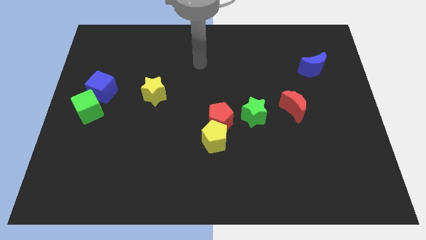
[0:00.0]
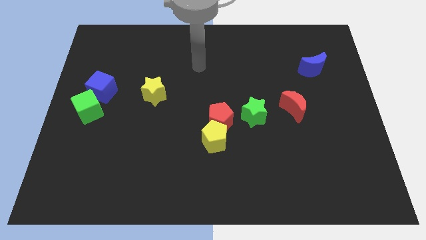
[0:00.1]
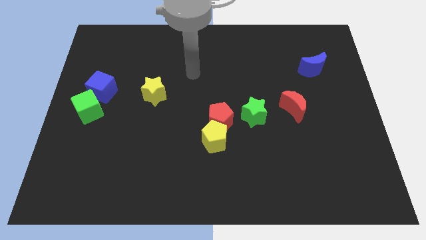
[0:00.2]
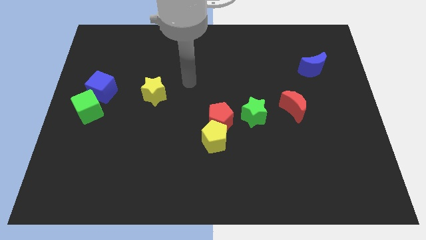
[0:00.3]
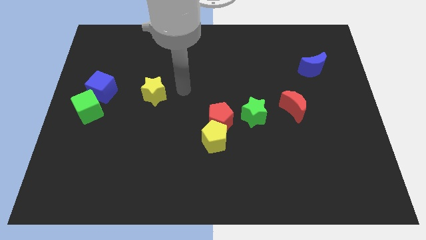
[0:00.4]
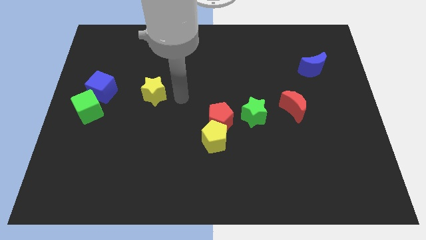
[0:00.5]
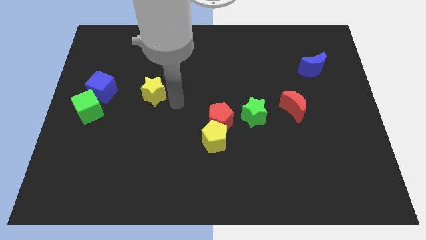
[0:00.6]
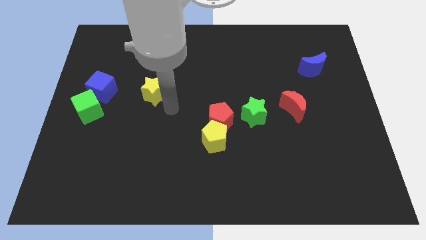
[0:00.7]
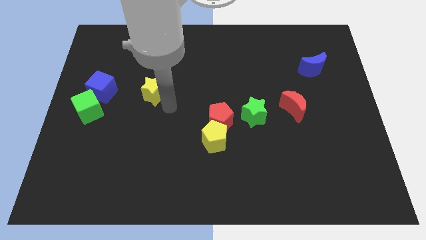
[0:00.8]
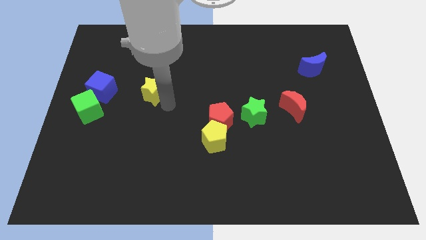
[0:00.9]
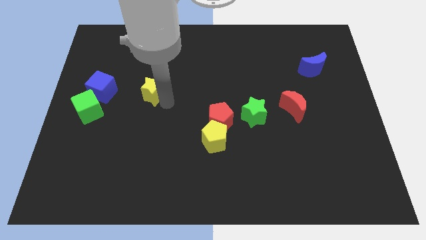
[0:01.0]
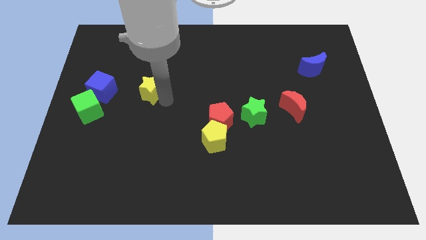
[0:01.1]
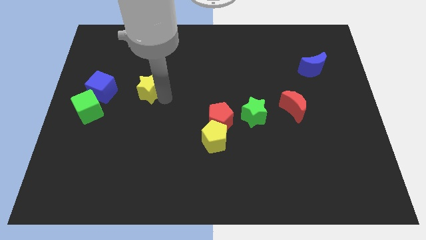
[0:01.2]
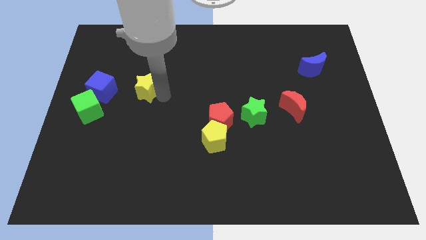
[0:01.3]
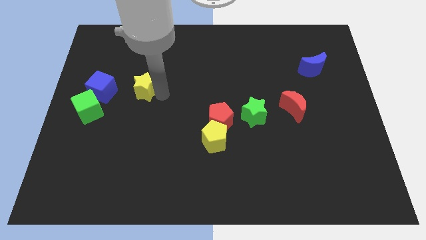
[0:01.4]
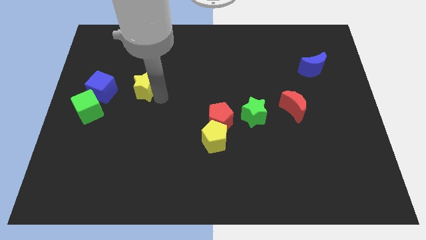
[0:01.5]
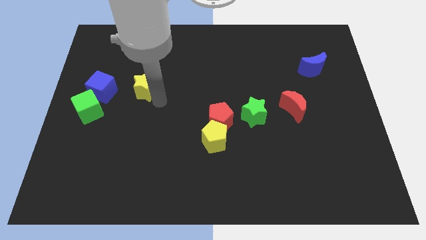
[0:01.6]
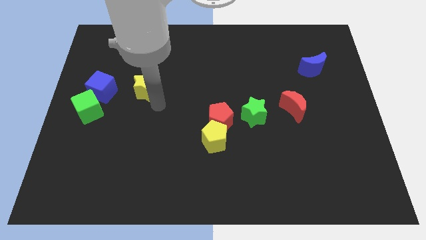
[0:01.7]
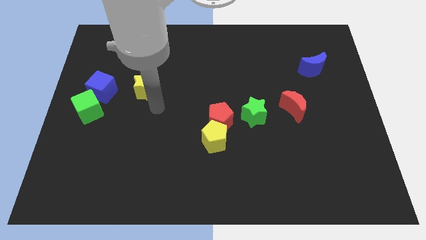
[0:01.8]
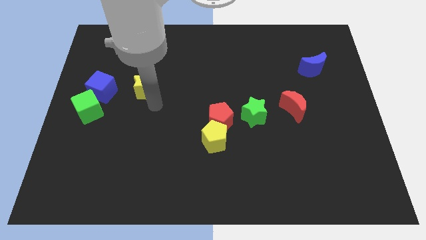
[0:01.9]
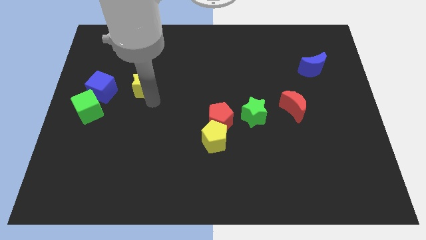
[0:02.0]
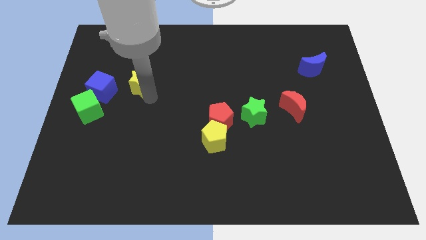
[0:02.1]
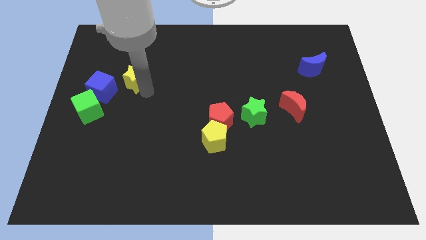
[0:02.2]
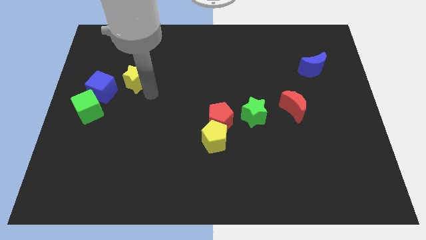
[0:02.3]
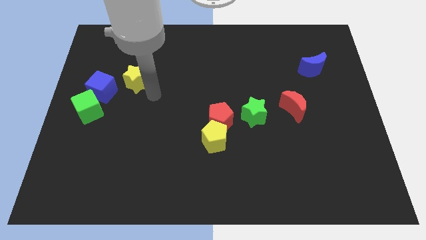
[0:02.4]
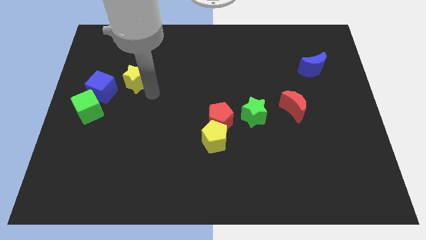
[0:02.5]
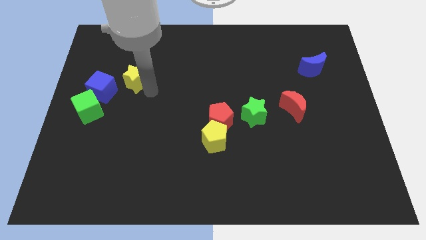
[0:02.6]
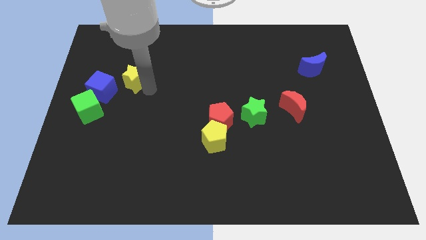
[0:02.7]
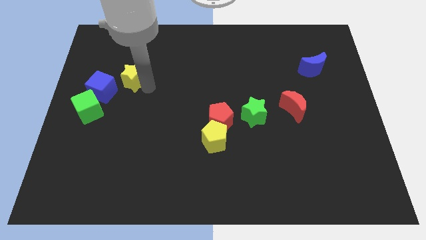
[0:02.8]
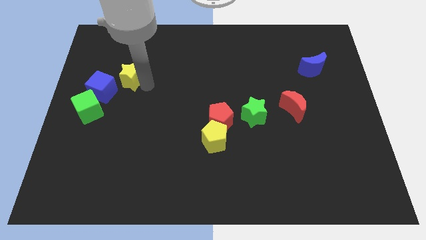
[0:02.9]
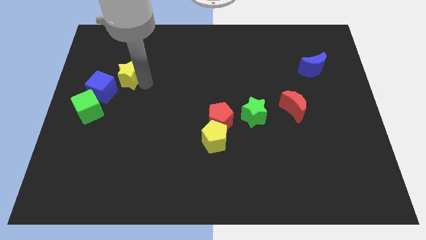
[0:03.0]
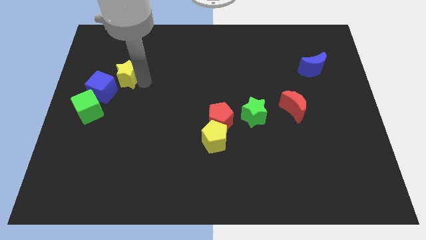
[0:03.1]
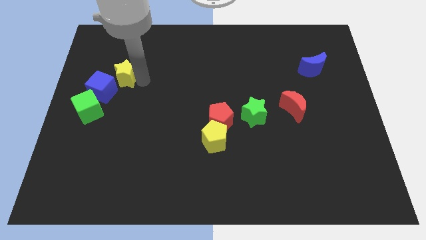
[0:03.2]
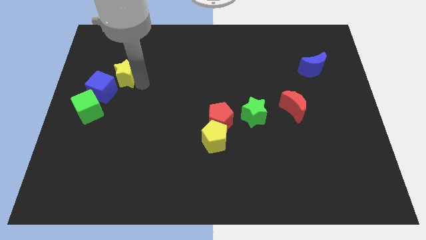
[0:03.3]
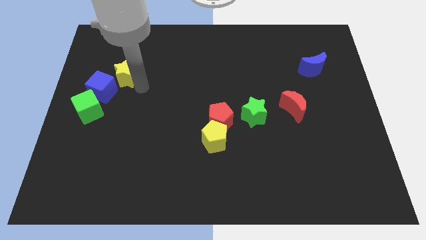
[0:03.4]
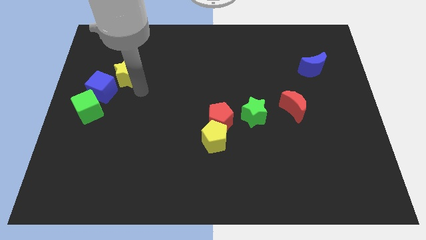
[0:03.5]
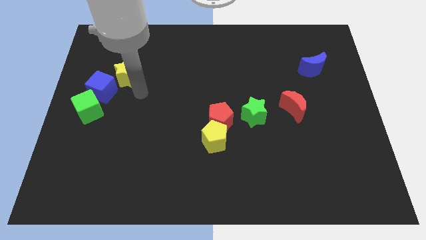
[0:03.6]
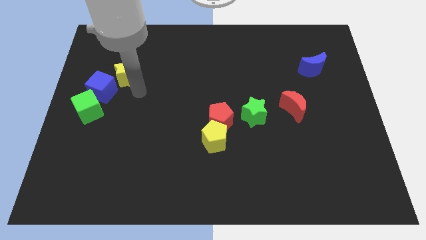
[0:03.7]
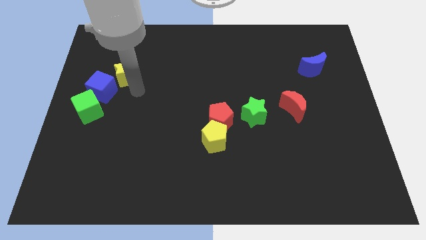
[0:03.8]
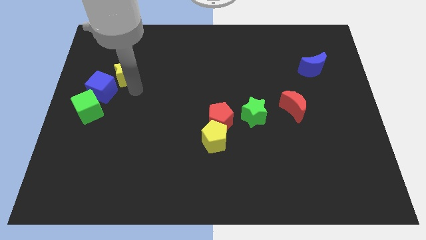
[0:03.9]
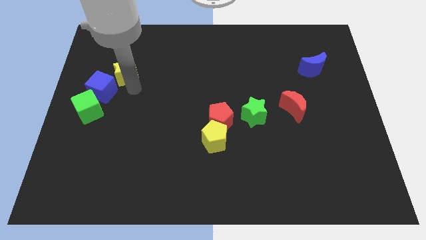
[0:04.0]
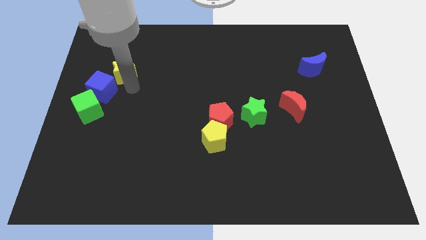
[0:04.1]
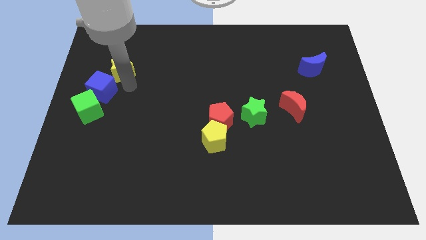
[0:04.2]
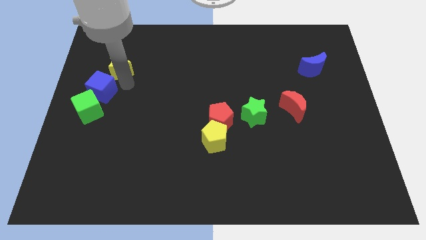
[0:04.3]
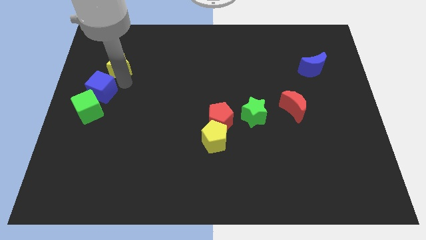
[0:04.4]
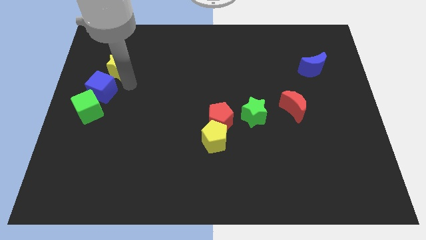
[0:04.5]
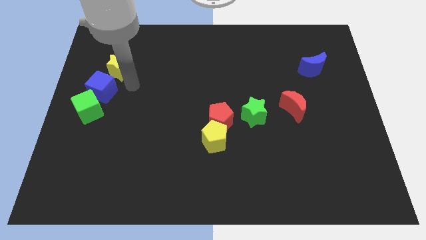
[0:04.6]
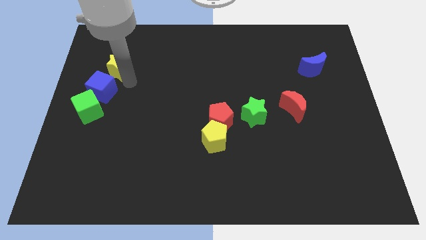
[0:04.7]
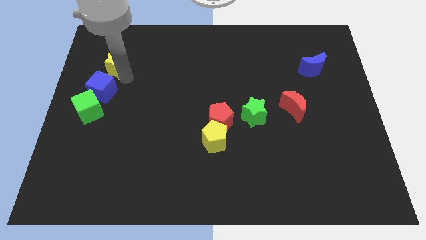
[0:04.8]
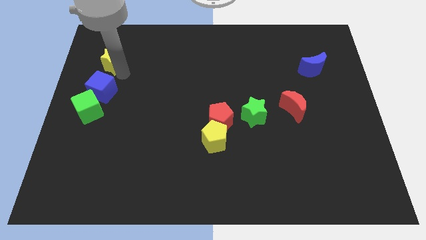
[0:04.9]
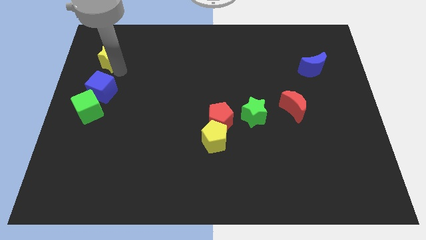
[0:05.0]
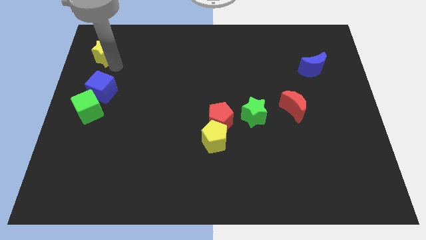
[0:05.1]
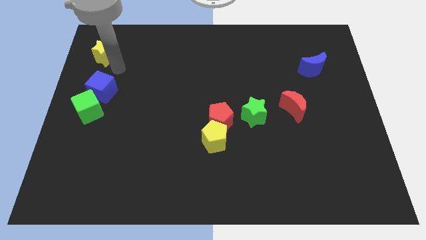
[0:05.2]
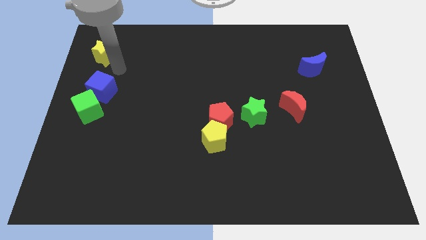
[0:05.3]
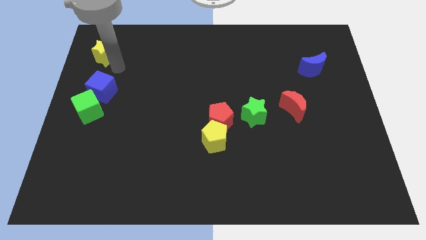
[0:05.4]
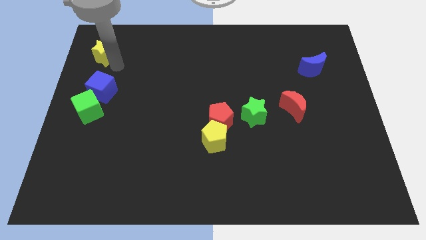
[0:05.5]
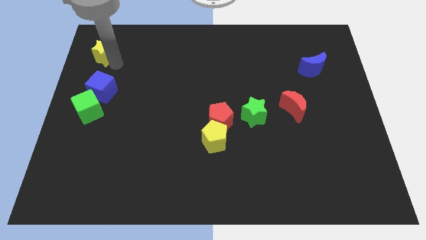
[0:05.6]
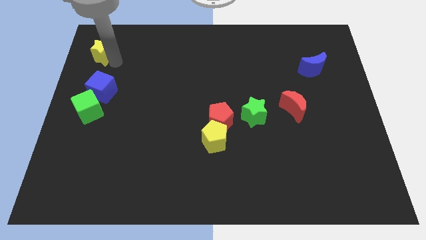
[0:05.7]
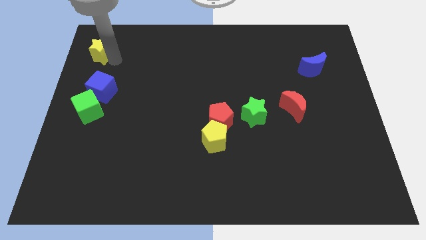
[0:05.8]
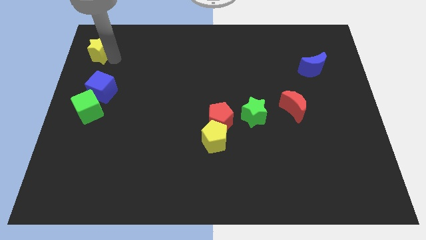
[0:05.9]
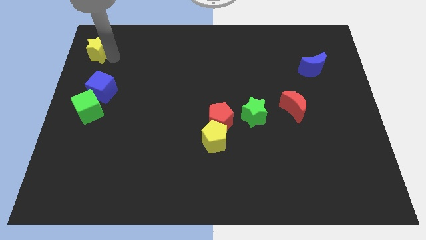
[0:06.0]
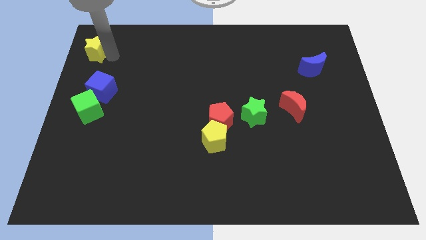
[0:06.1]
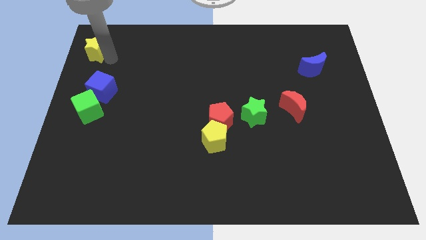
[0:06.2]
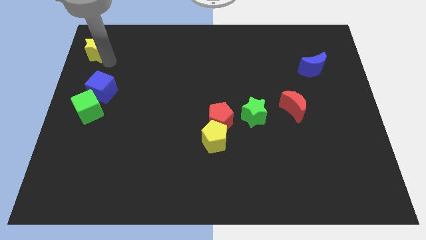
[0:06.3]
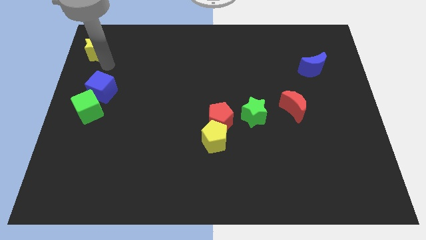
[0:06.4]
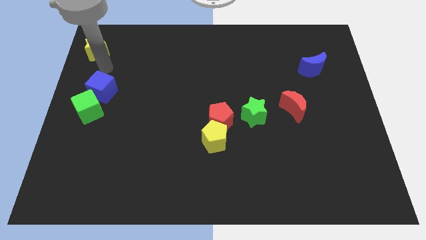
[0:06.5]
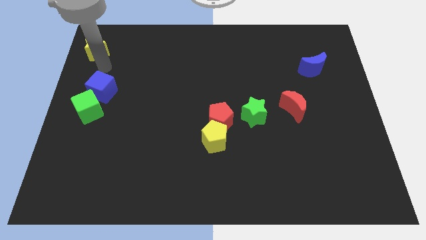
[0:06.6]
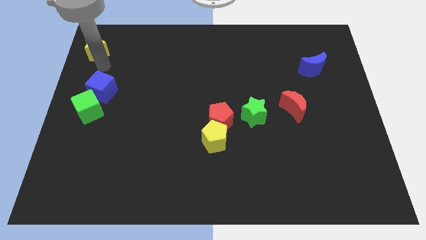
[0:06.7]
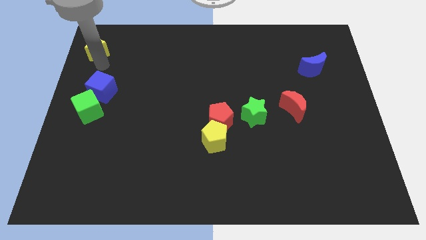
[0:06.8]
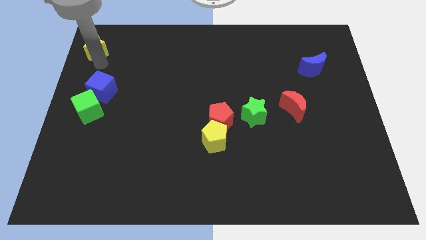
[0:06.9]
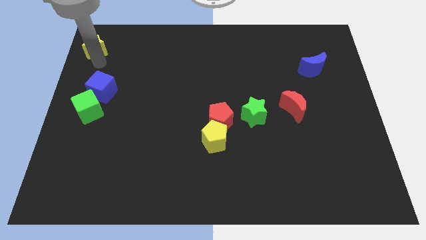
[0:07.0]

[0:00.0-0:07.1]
push the yellow star to the upper left corner

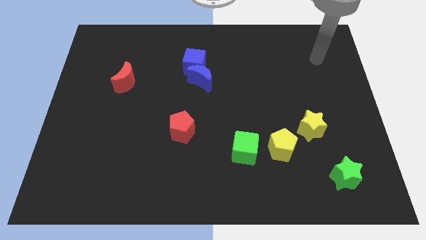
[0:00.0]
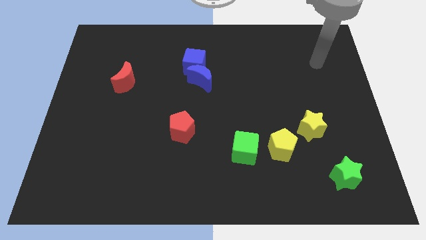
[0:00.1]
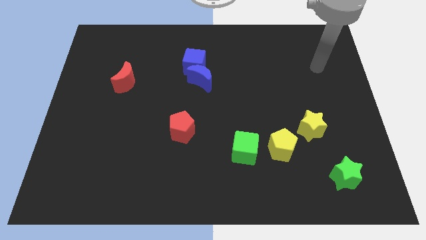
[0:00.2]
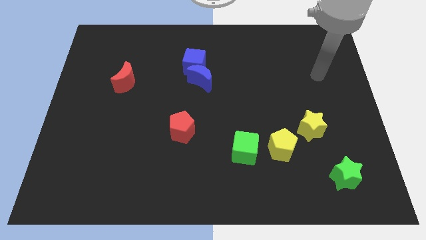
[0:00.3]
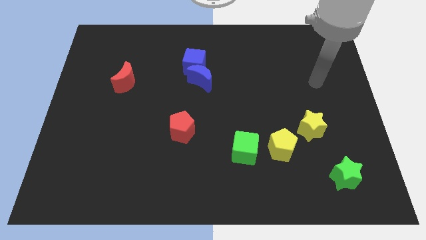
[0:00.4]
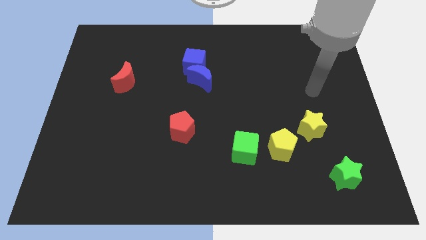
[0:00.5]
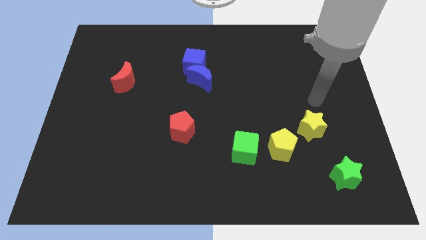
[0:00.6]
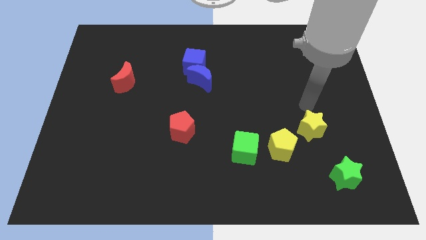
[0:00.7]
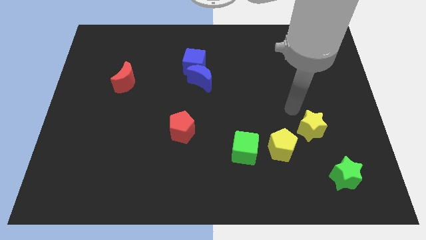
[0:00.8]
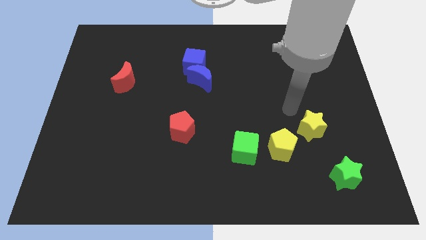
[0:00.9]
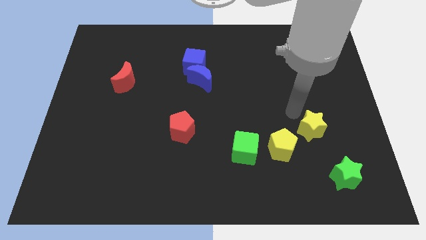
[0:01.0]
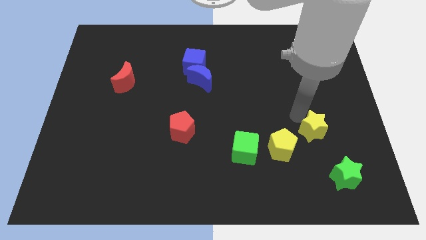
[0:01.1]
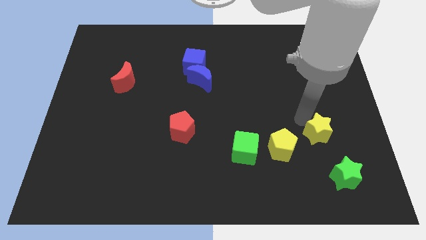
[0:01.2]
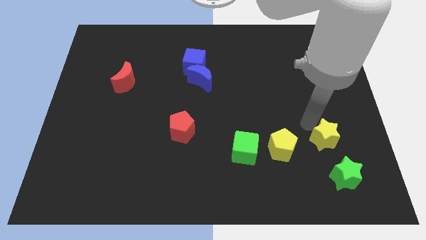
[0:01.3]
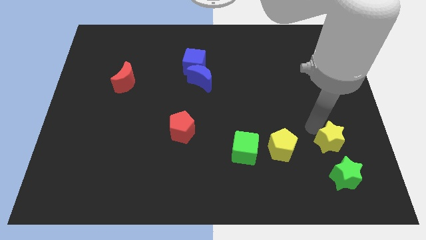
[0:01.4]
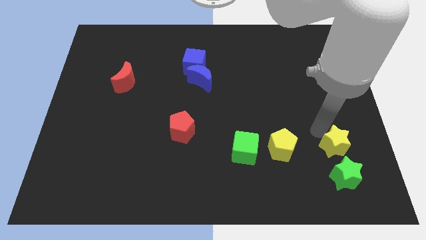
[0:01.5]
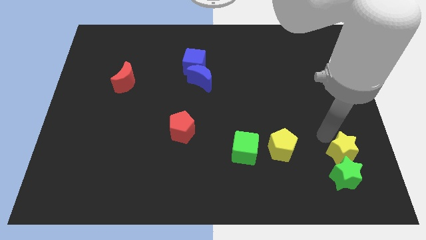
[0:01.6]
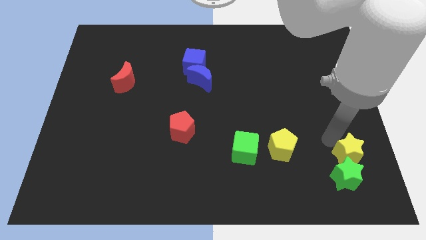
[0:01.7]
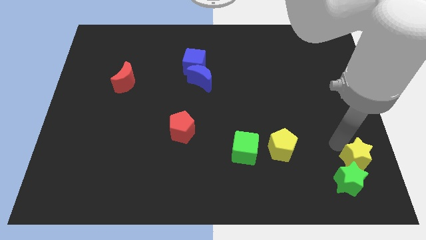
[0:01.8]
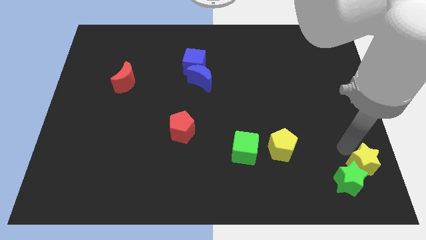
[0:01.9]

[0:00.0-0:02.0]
move the yellow star to the lower right corner
